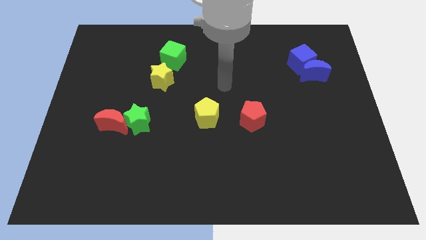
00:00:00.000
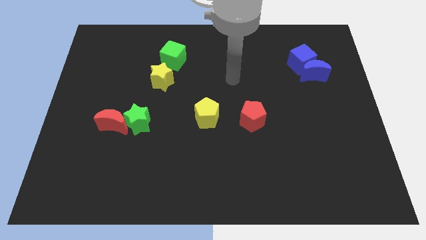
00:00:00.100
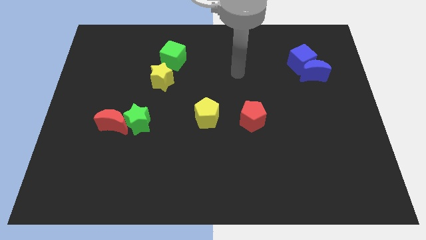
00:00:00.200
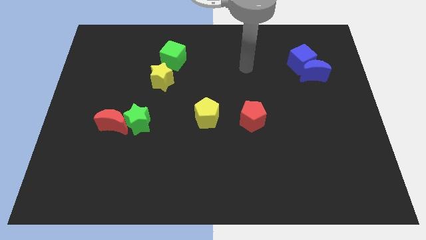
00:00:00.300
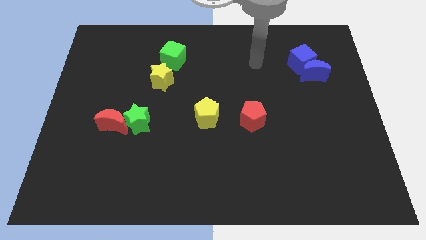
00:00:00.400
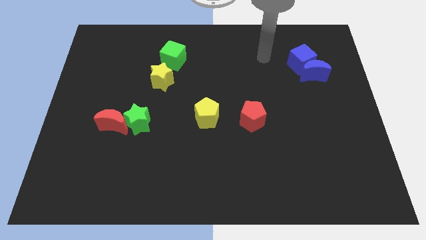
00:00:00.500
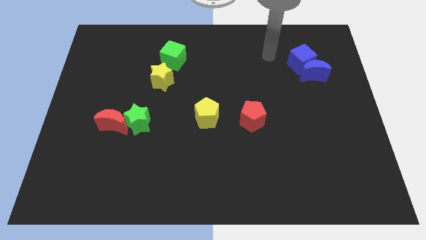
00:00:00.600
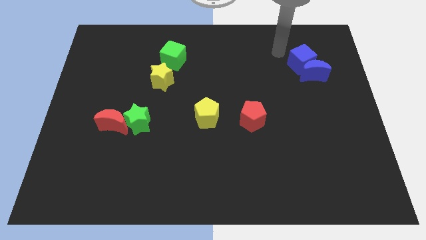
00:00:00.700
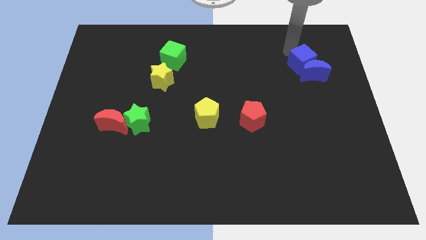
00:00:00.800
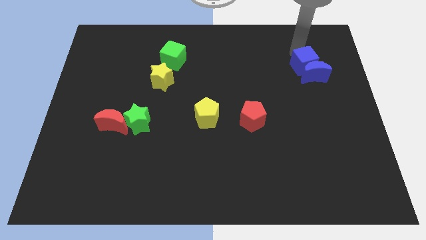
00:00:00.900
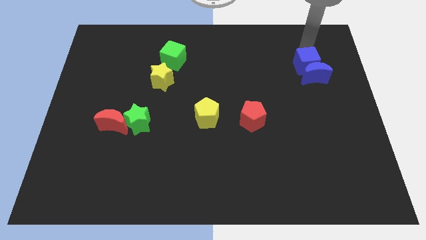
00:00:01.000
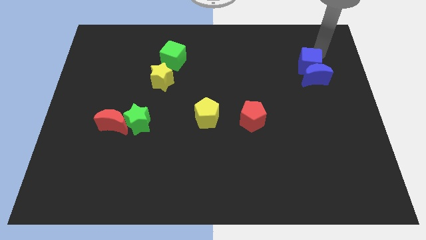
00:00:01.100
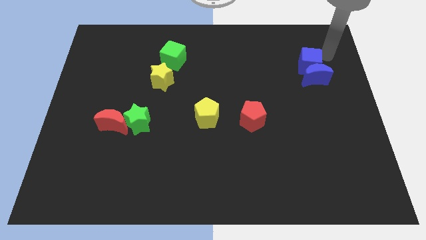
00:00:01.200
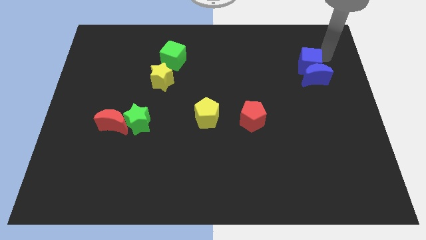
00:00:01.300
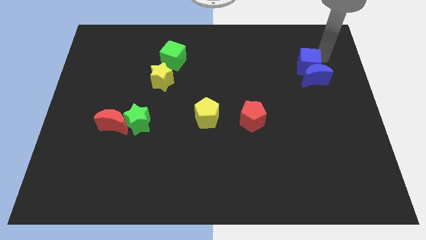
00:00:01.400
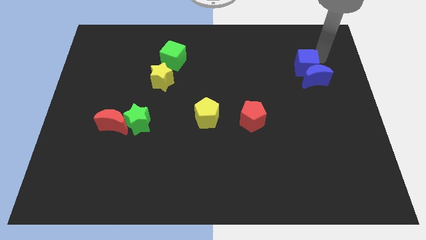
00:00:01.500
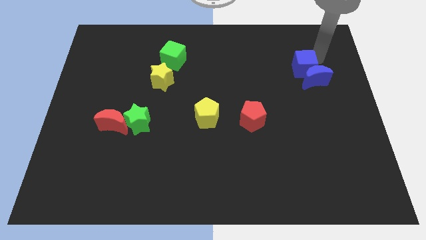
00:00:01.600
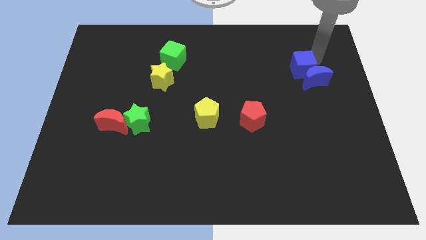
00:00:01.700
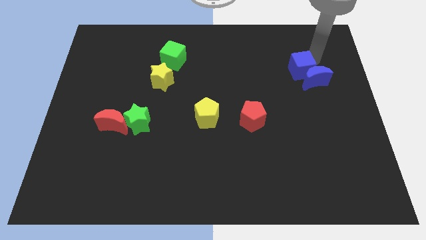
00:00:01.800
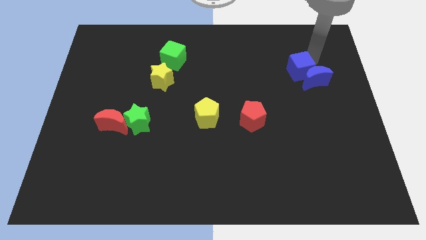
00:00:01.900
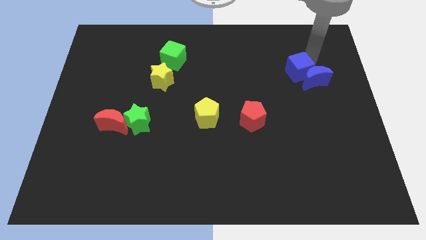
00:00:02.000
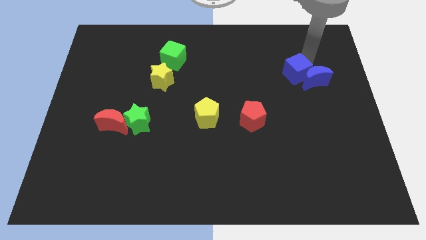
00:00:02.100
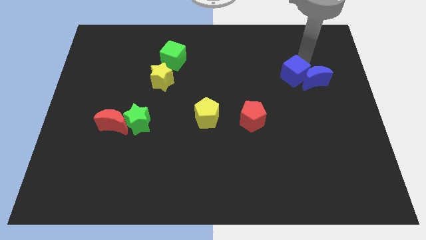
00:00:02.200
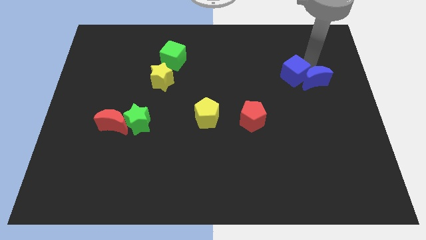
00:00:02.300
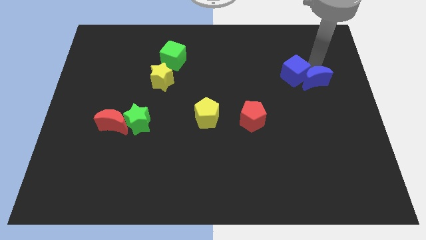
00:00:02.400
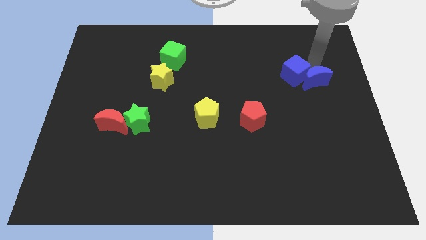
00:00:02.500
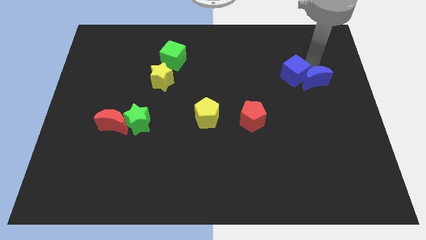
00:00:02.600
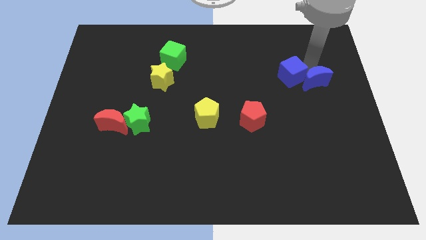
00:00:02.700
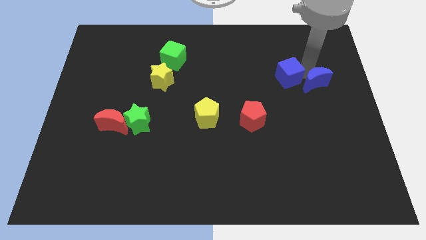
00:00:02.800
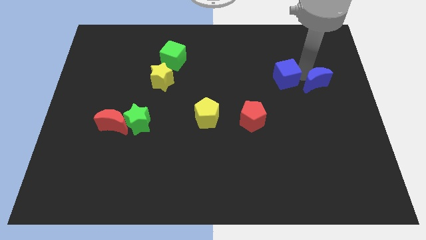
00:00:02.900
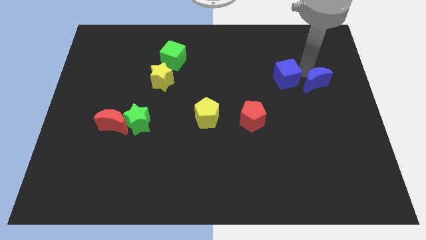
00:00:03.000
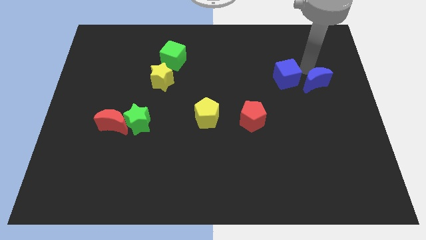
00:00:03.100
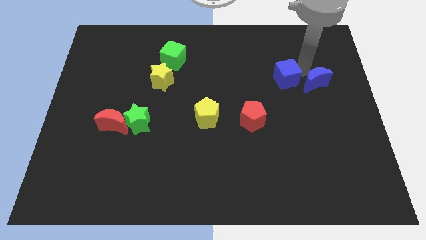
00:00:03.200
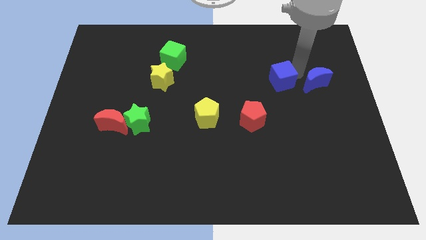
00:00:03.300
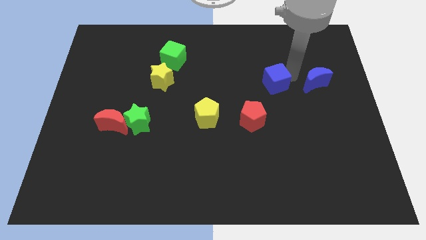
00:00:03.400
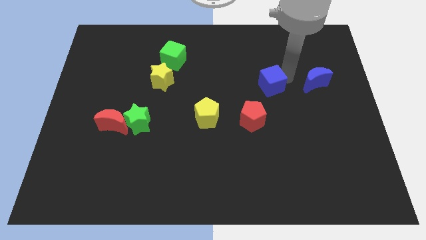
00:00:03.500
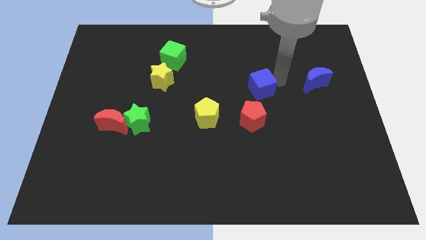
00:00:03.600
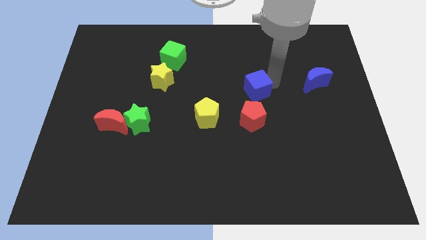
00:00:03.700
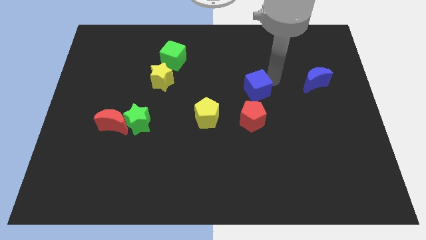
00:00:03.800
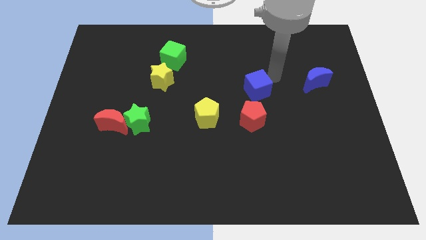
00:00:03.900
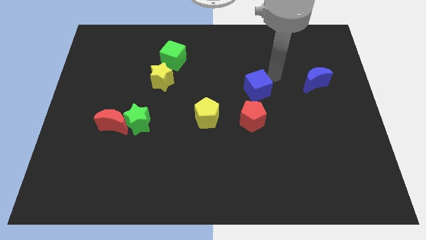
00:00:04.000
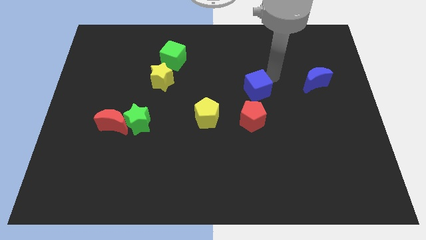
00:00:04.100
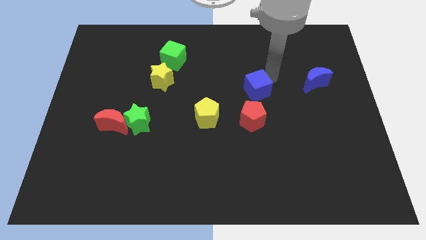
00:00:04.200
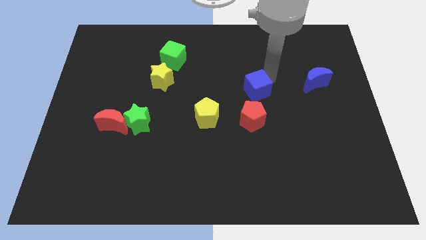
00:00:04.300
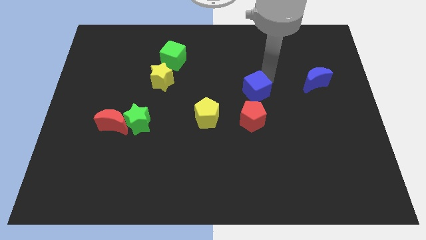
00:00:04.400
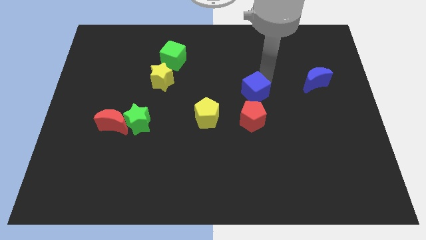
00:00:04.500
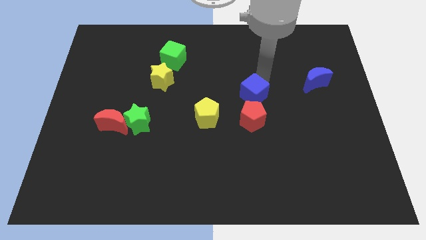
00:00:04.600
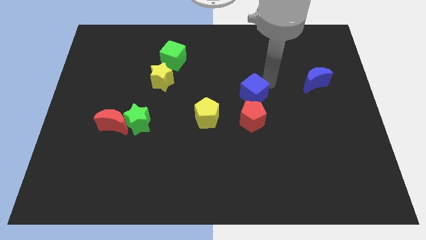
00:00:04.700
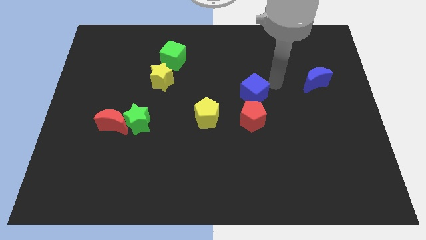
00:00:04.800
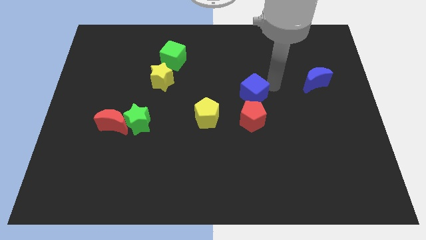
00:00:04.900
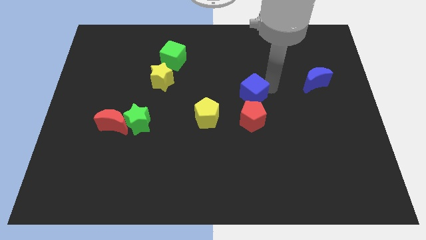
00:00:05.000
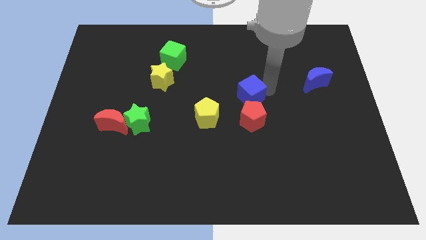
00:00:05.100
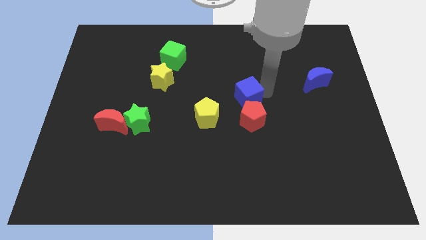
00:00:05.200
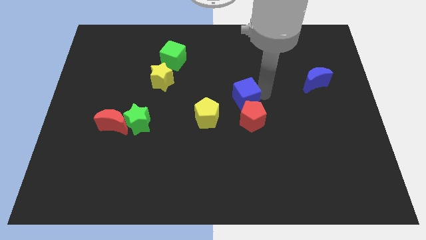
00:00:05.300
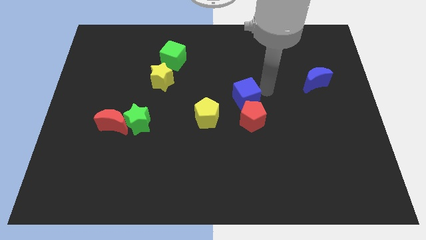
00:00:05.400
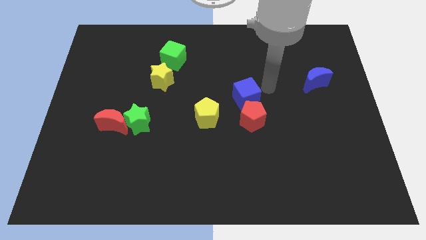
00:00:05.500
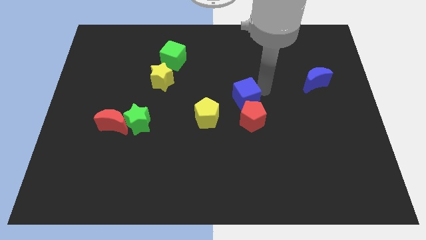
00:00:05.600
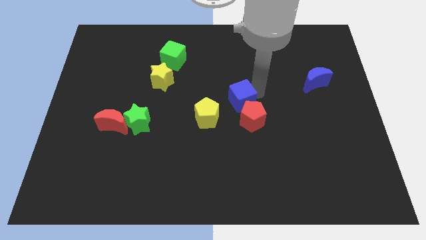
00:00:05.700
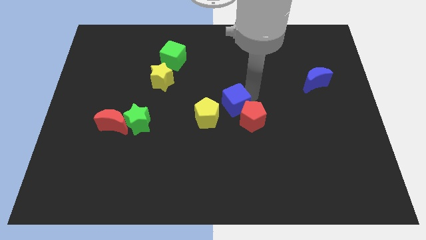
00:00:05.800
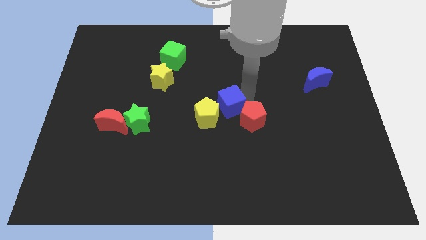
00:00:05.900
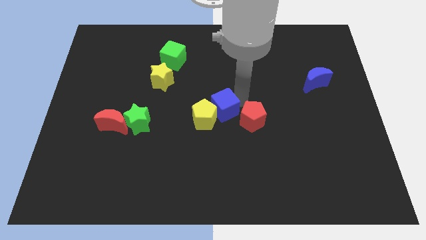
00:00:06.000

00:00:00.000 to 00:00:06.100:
push the blue cube next to the yellow pentagon
